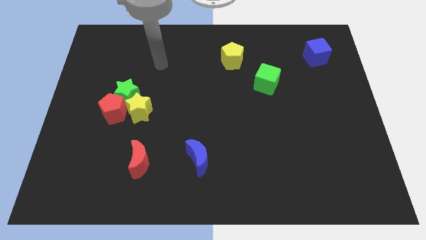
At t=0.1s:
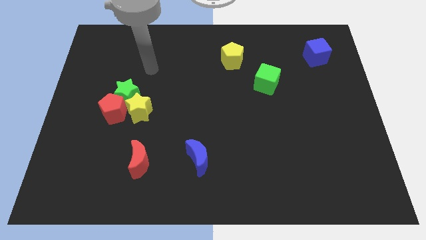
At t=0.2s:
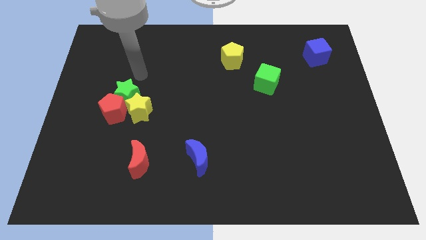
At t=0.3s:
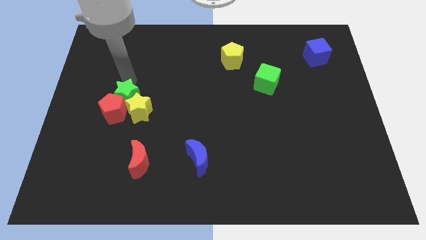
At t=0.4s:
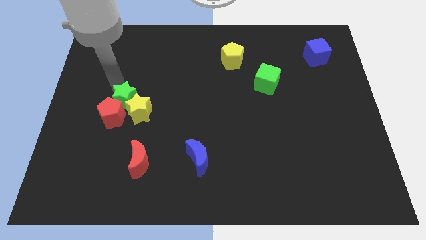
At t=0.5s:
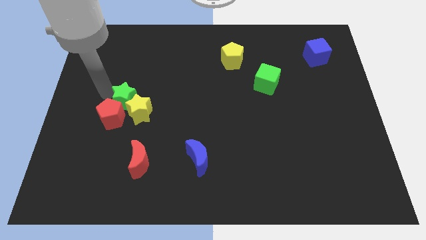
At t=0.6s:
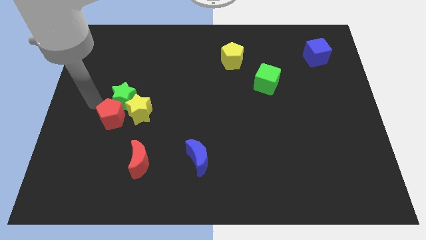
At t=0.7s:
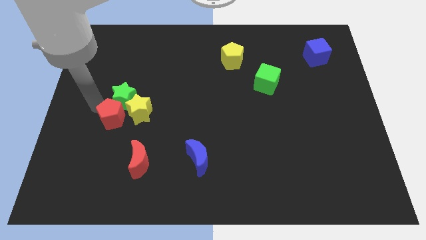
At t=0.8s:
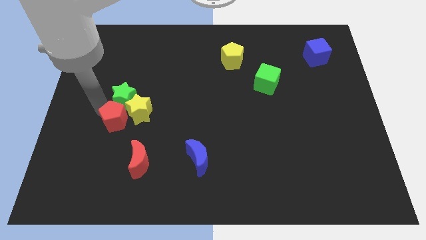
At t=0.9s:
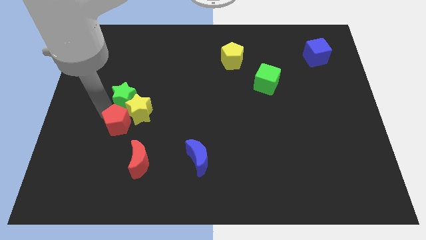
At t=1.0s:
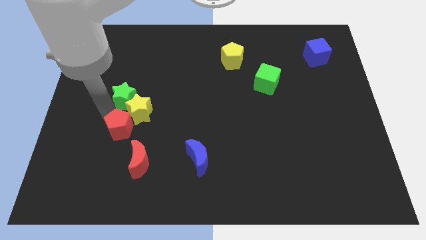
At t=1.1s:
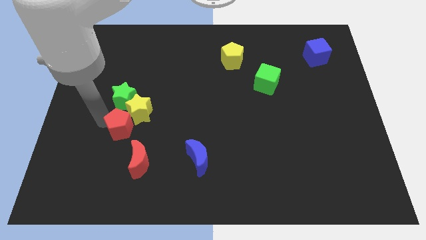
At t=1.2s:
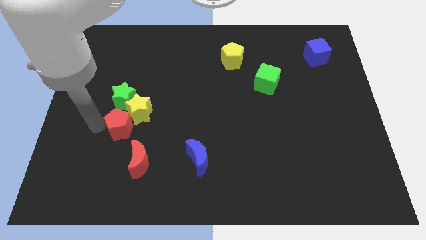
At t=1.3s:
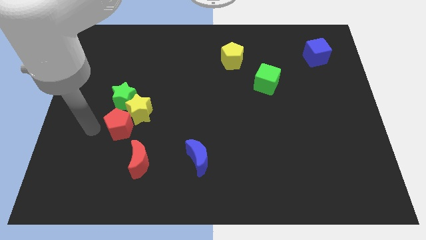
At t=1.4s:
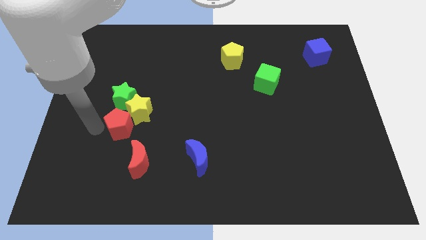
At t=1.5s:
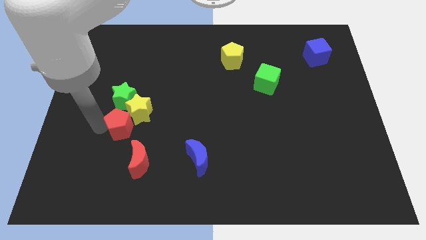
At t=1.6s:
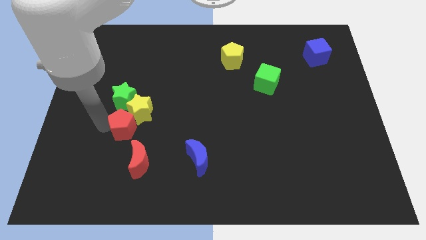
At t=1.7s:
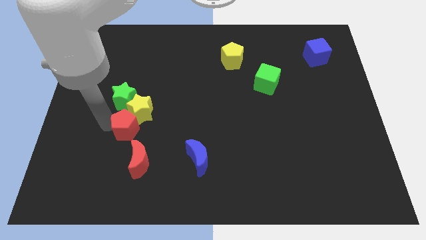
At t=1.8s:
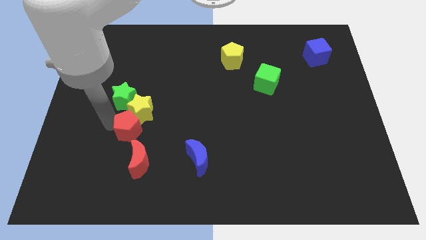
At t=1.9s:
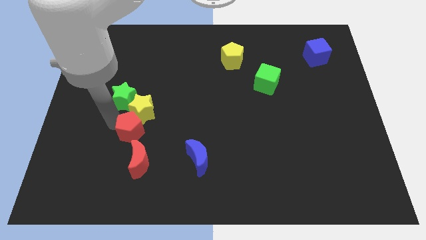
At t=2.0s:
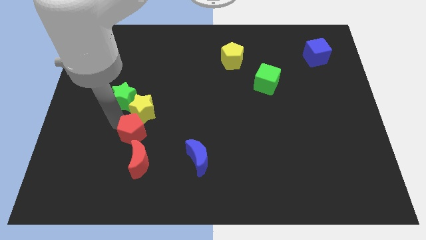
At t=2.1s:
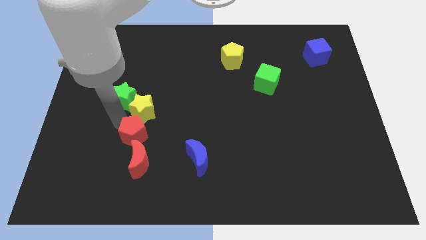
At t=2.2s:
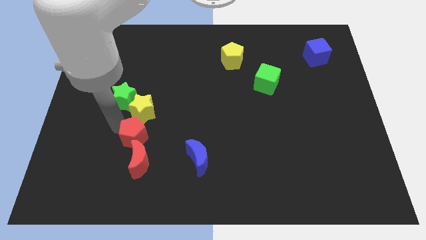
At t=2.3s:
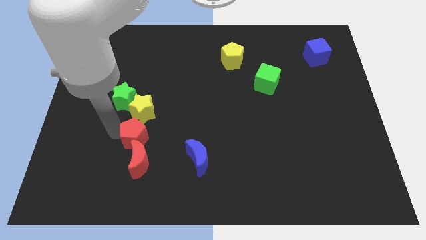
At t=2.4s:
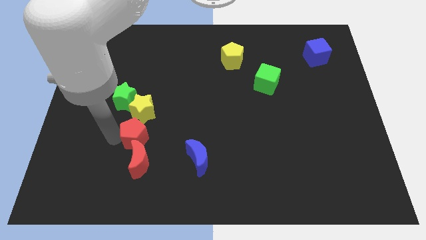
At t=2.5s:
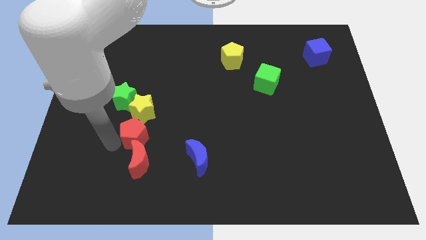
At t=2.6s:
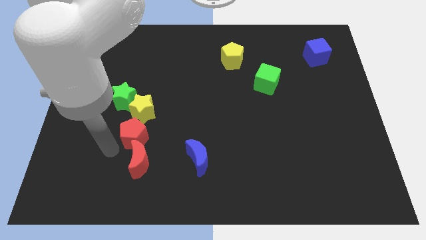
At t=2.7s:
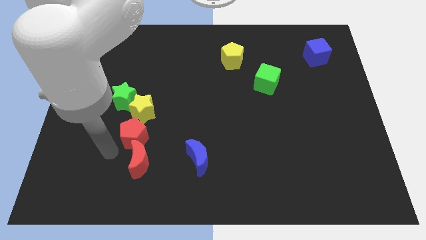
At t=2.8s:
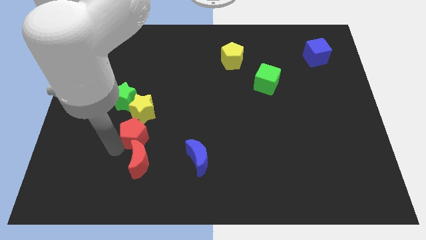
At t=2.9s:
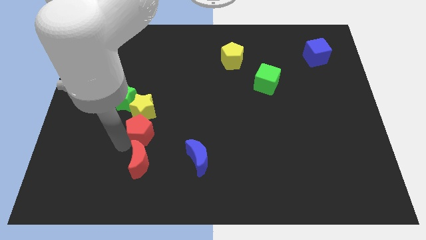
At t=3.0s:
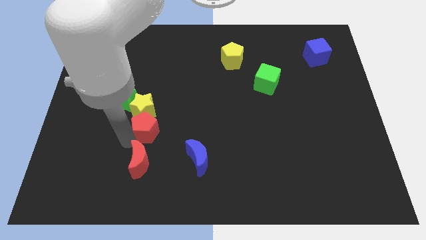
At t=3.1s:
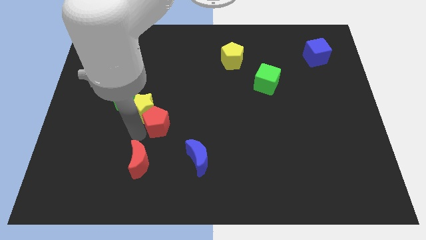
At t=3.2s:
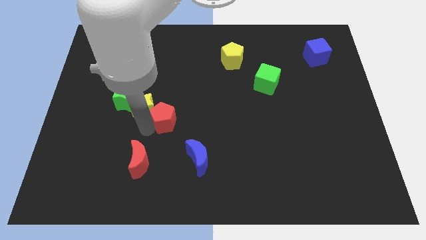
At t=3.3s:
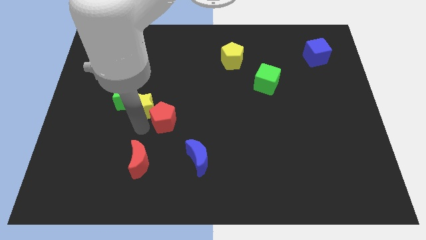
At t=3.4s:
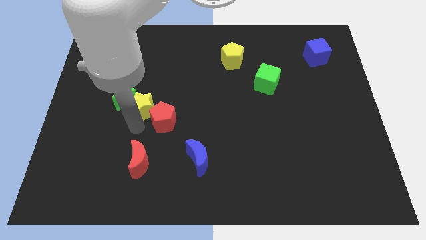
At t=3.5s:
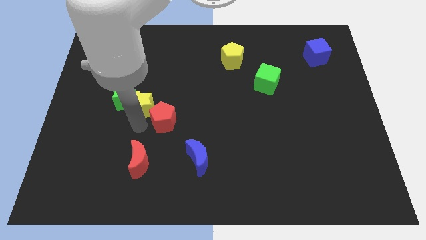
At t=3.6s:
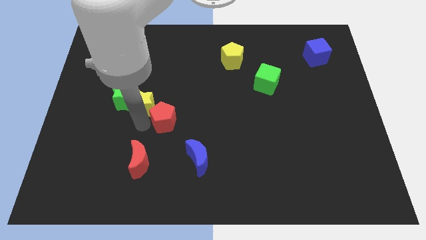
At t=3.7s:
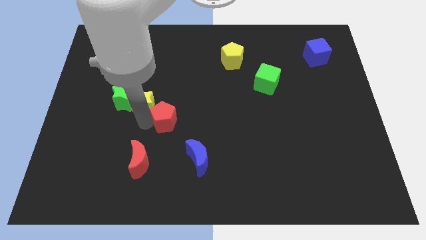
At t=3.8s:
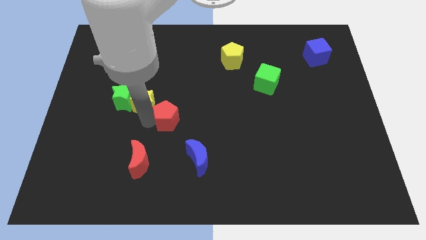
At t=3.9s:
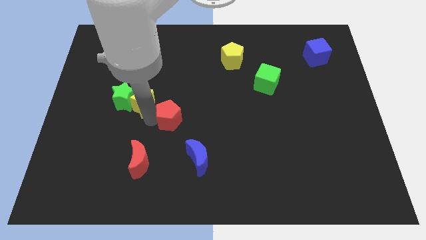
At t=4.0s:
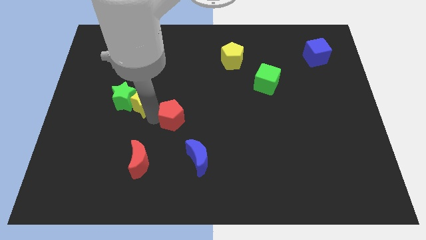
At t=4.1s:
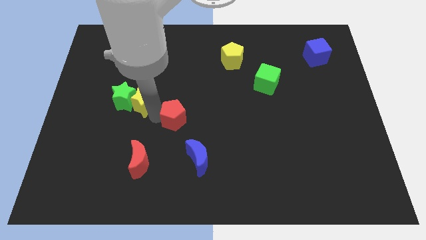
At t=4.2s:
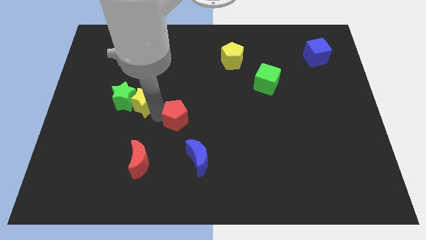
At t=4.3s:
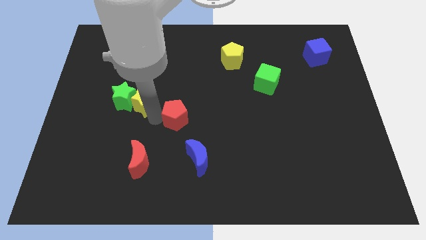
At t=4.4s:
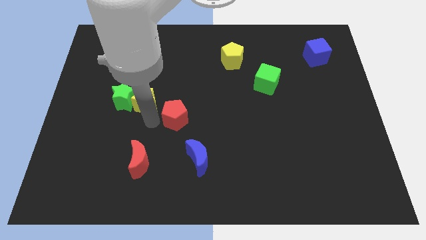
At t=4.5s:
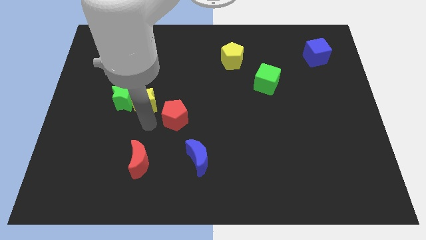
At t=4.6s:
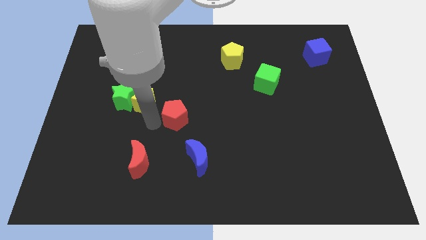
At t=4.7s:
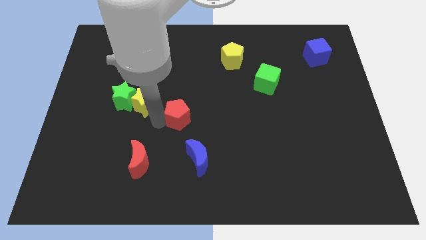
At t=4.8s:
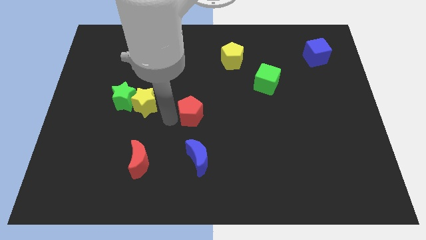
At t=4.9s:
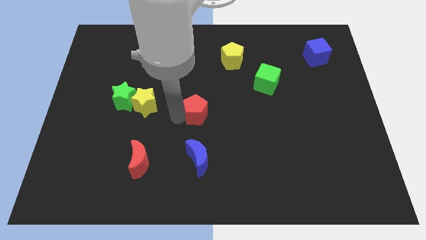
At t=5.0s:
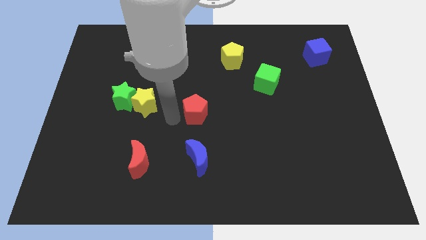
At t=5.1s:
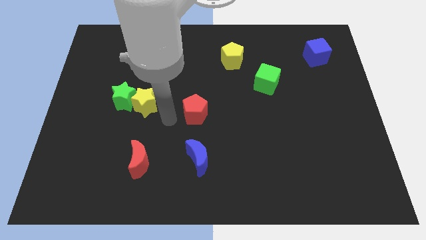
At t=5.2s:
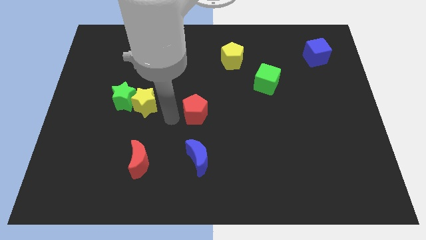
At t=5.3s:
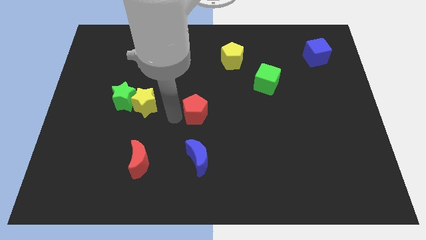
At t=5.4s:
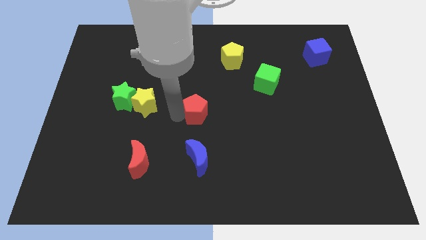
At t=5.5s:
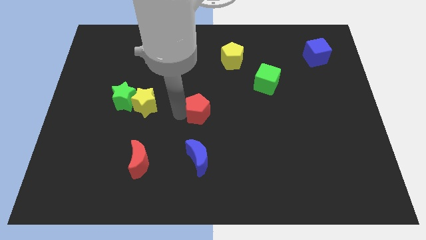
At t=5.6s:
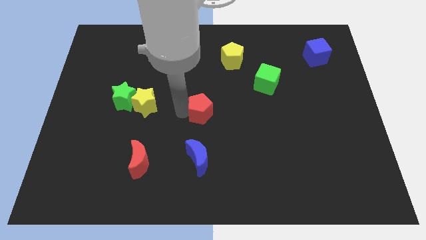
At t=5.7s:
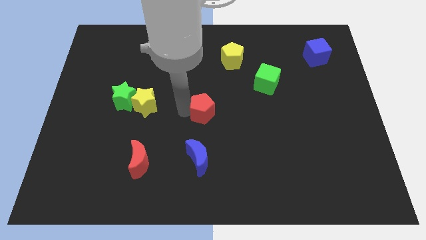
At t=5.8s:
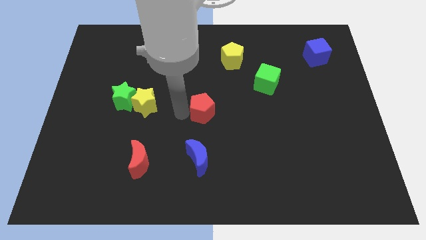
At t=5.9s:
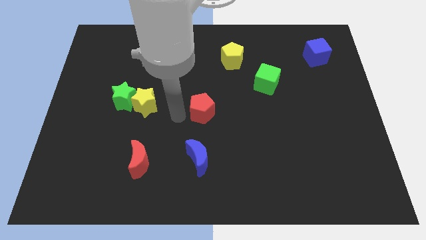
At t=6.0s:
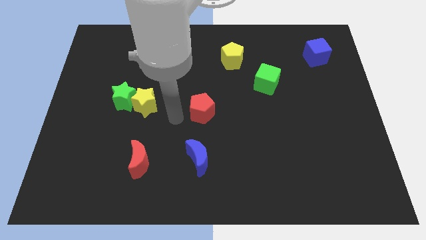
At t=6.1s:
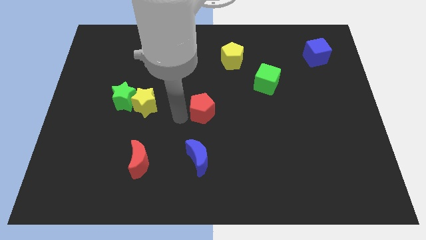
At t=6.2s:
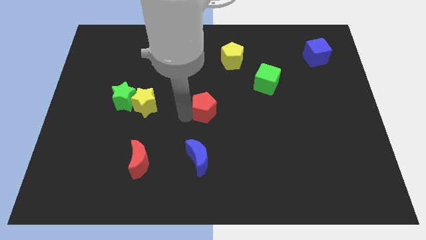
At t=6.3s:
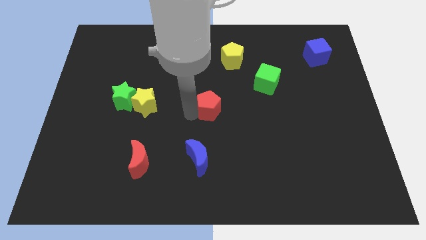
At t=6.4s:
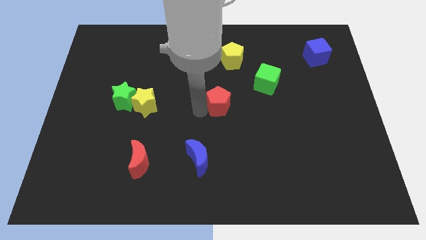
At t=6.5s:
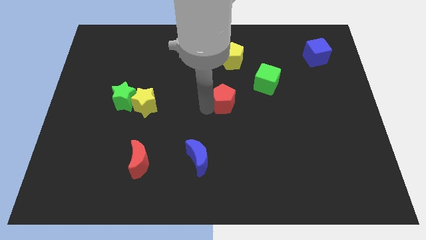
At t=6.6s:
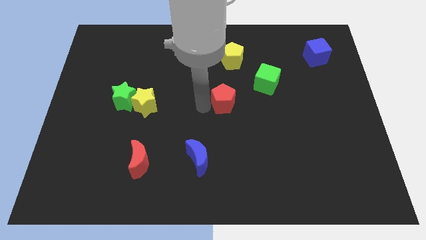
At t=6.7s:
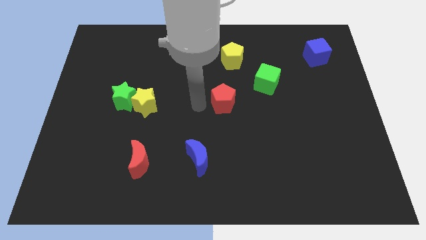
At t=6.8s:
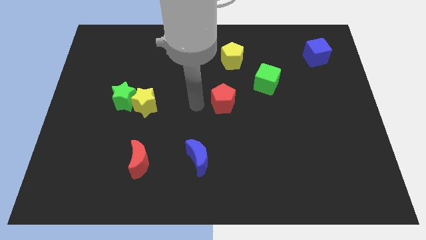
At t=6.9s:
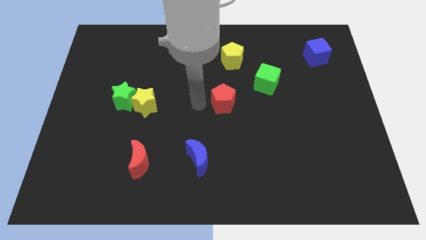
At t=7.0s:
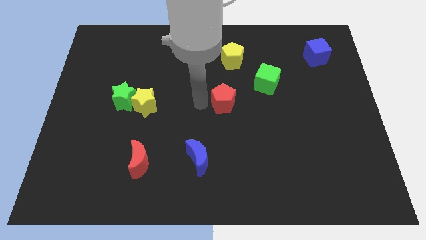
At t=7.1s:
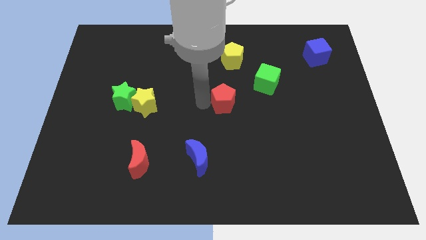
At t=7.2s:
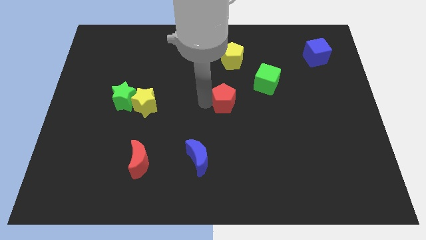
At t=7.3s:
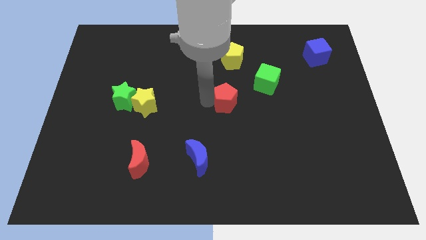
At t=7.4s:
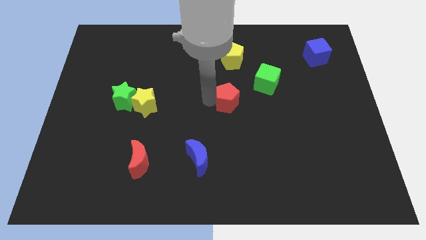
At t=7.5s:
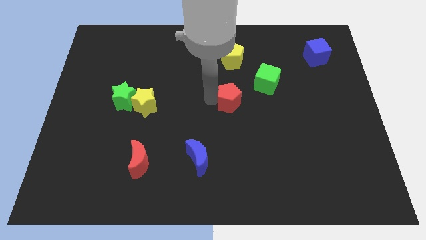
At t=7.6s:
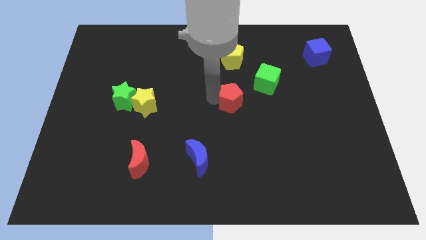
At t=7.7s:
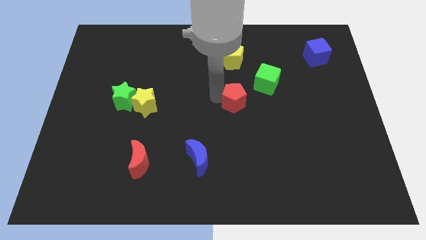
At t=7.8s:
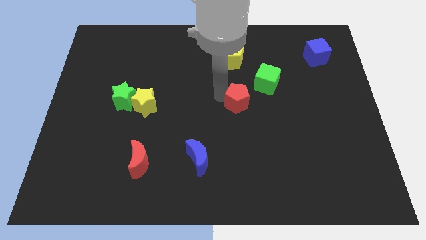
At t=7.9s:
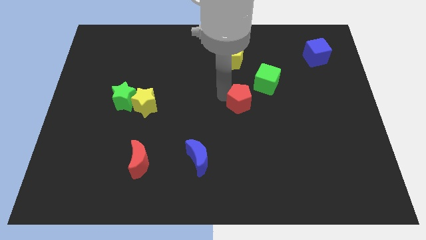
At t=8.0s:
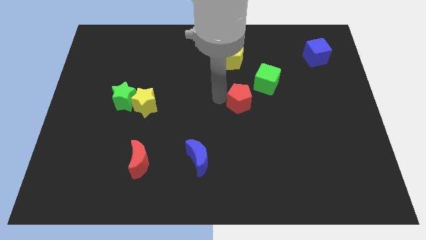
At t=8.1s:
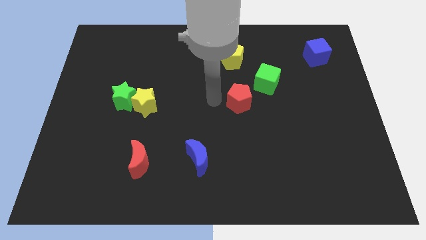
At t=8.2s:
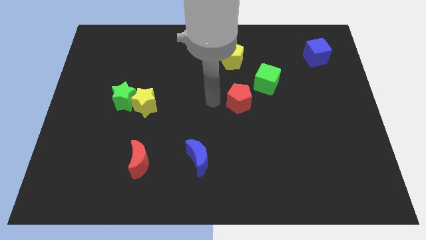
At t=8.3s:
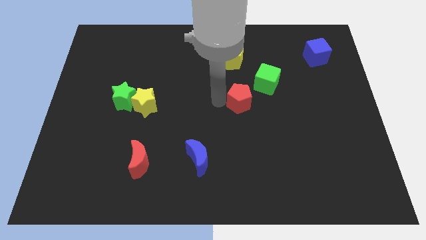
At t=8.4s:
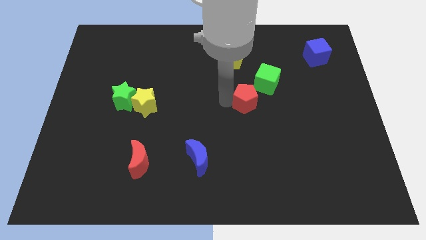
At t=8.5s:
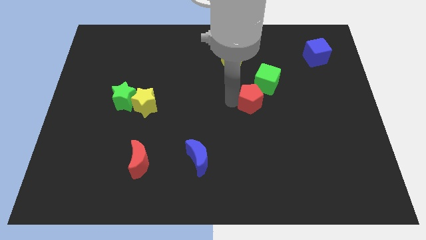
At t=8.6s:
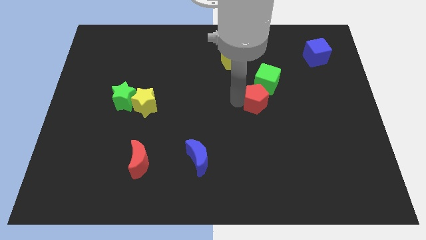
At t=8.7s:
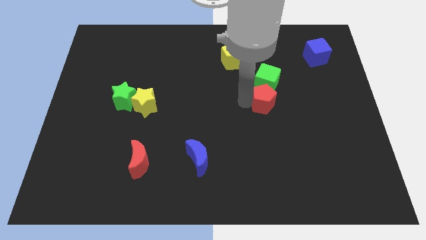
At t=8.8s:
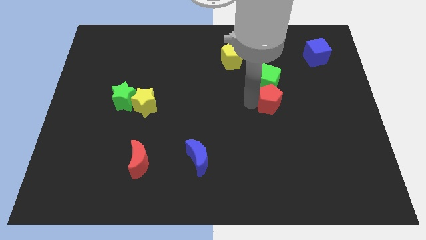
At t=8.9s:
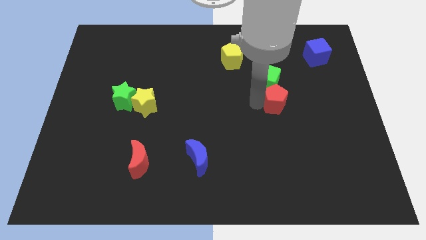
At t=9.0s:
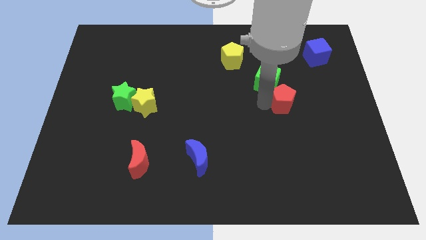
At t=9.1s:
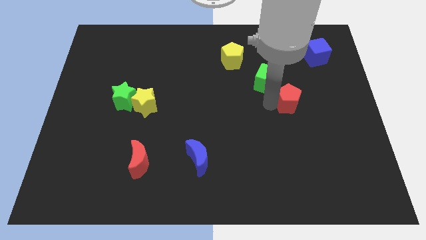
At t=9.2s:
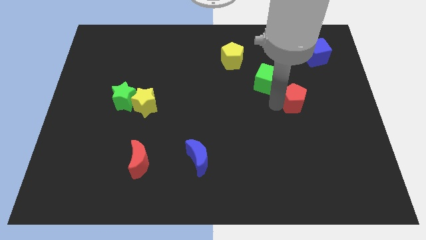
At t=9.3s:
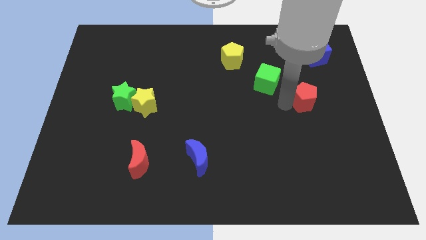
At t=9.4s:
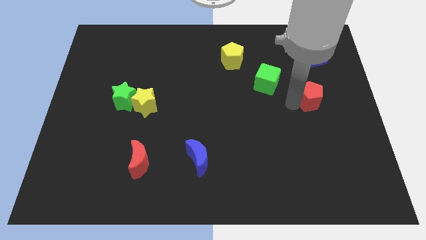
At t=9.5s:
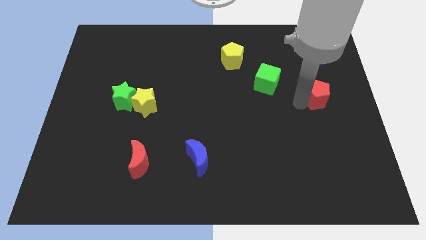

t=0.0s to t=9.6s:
slide the red pentagon below the blue cube
